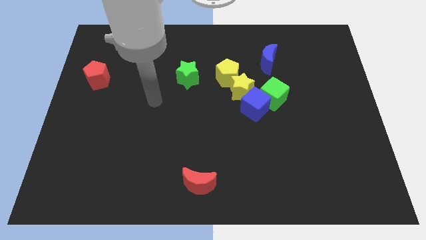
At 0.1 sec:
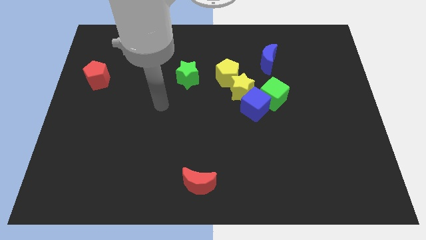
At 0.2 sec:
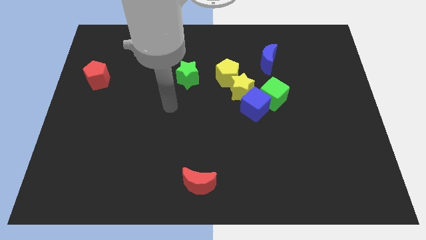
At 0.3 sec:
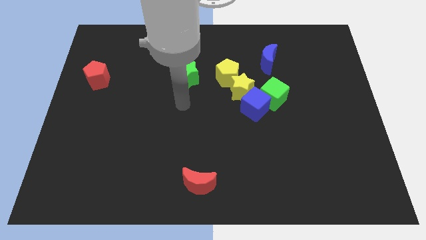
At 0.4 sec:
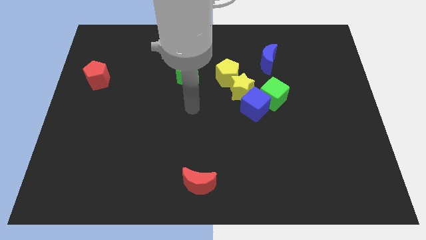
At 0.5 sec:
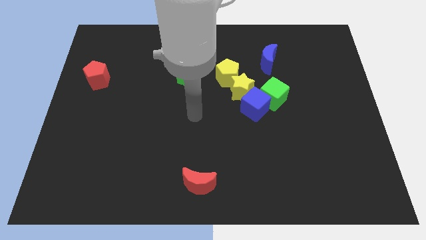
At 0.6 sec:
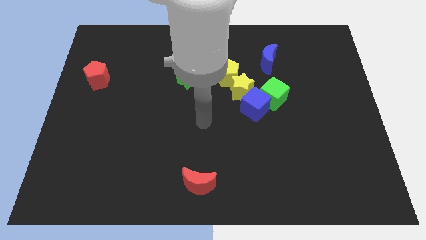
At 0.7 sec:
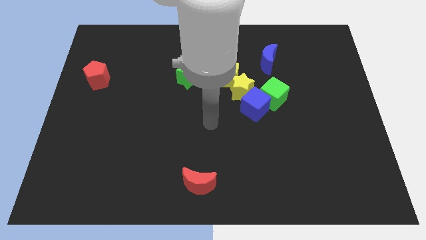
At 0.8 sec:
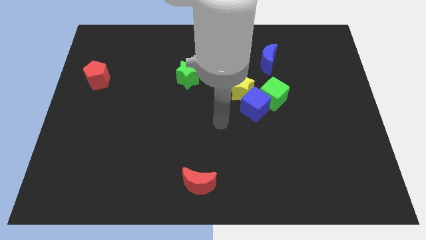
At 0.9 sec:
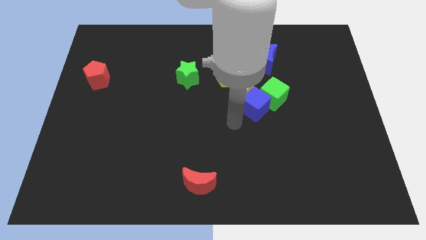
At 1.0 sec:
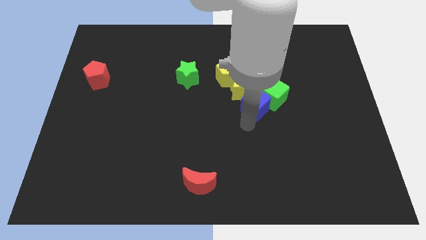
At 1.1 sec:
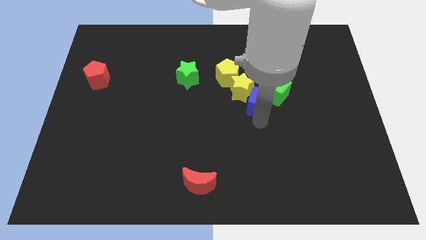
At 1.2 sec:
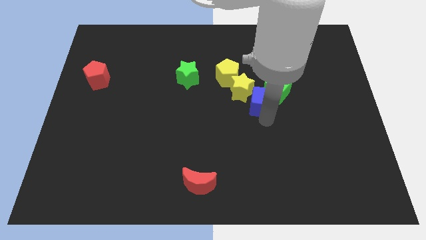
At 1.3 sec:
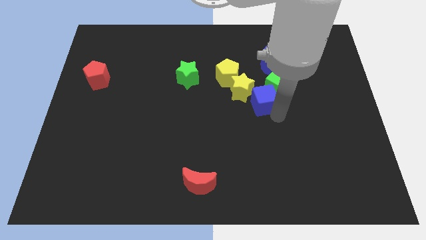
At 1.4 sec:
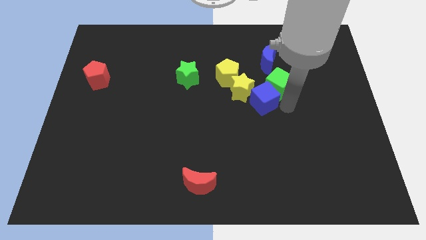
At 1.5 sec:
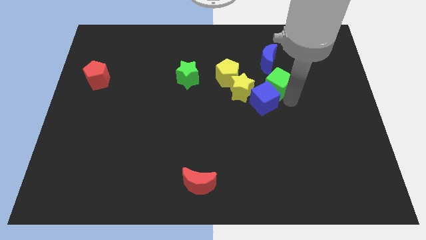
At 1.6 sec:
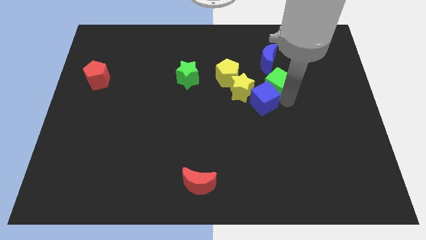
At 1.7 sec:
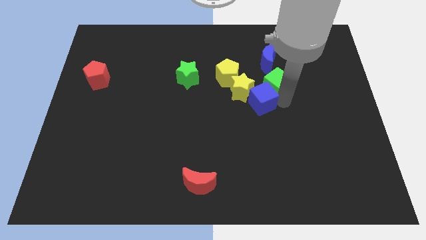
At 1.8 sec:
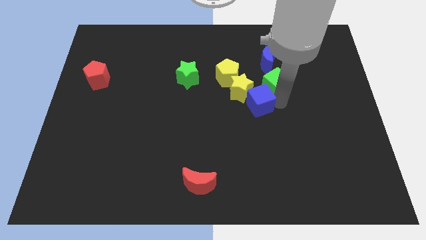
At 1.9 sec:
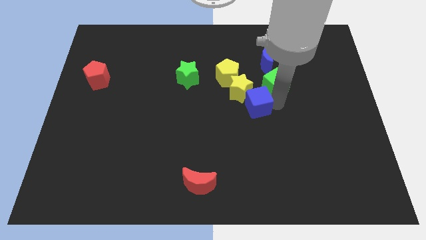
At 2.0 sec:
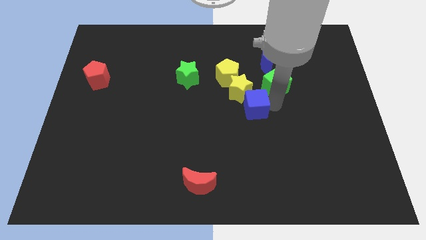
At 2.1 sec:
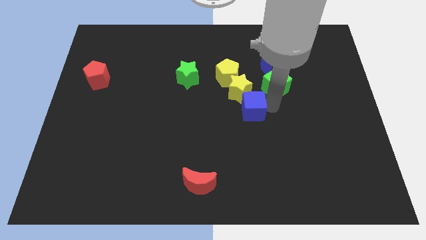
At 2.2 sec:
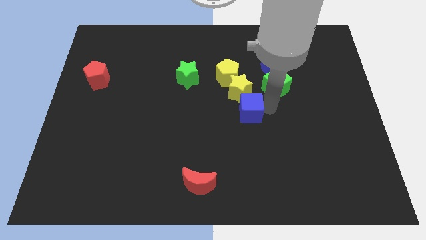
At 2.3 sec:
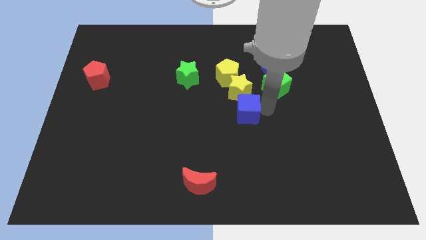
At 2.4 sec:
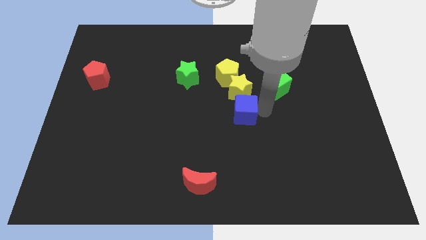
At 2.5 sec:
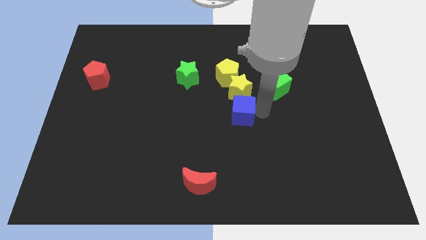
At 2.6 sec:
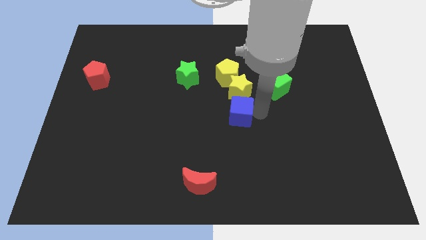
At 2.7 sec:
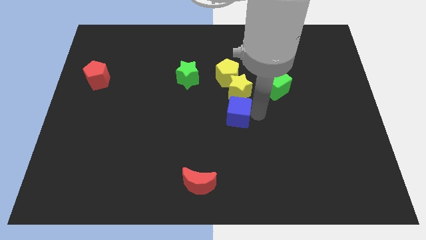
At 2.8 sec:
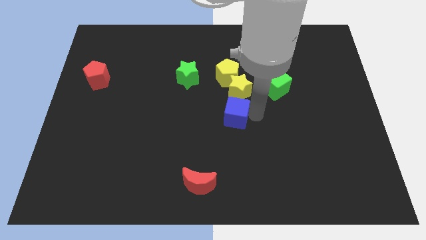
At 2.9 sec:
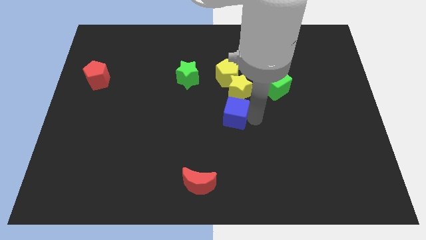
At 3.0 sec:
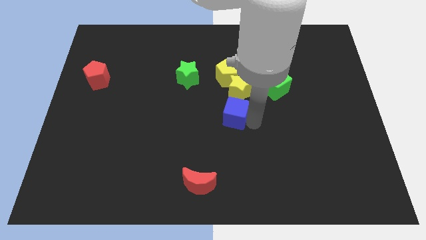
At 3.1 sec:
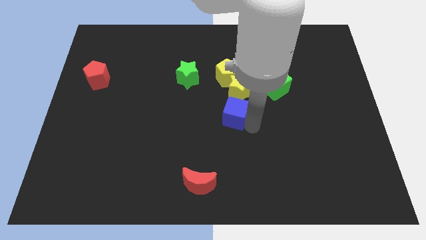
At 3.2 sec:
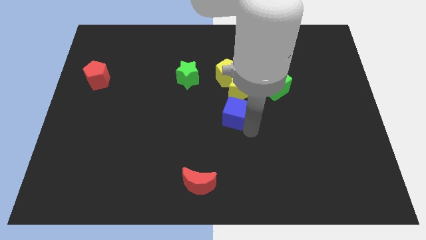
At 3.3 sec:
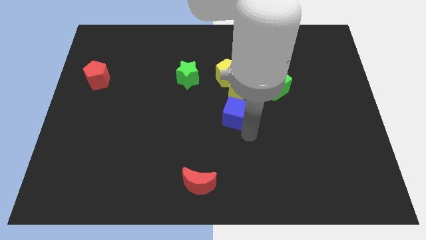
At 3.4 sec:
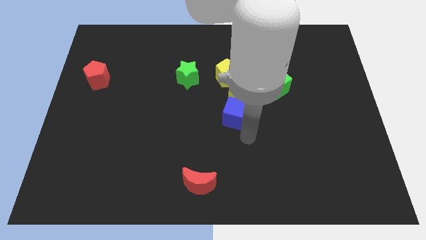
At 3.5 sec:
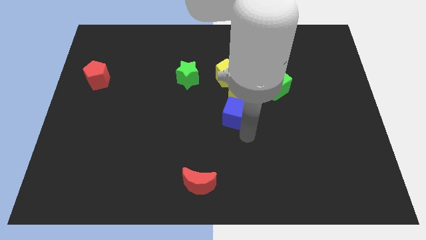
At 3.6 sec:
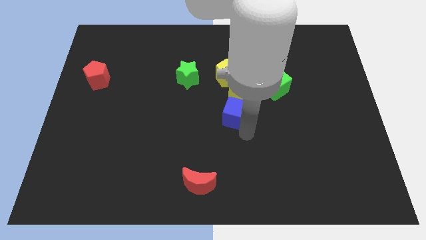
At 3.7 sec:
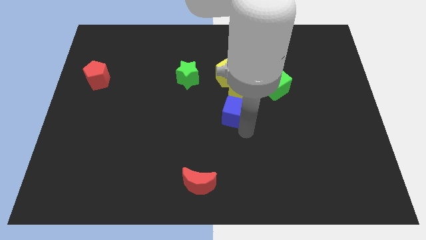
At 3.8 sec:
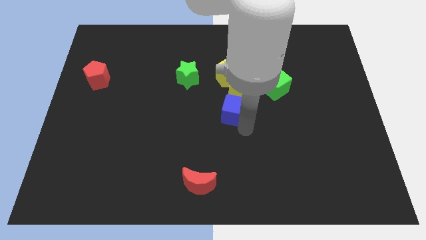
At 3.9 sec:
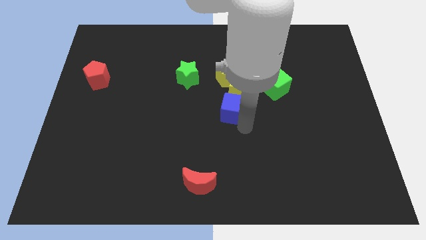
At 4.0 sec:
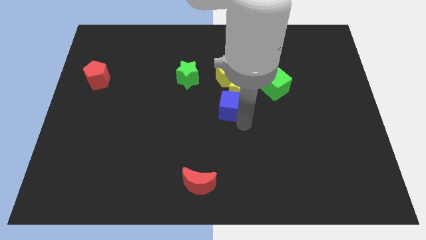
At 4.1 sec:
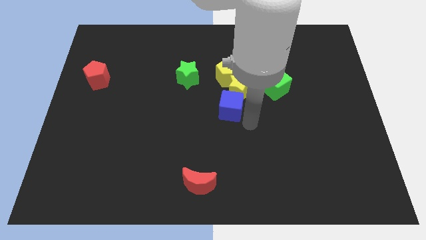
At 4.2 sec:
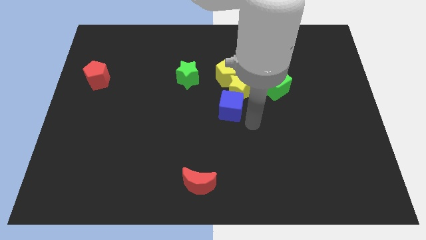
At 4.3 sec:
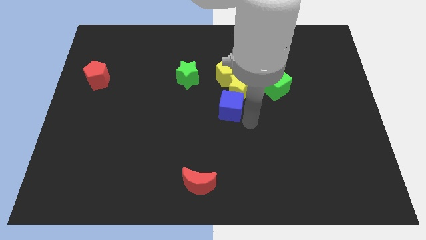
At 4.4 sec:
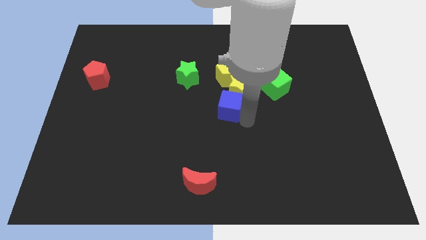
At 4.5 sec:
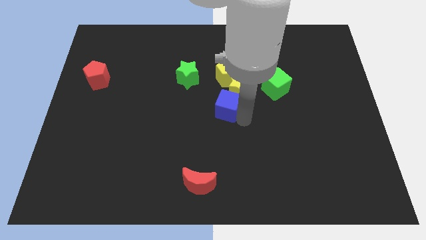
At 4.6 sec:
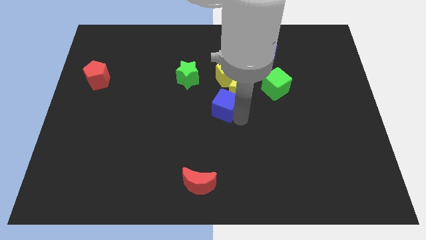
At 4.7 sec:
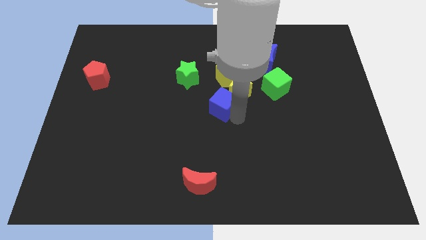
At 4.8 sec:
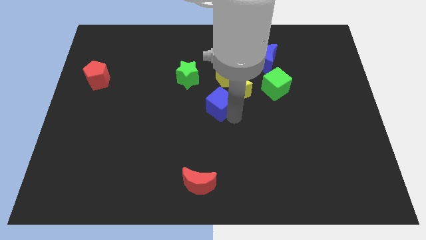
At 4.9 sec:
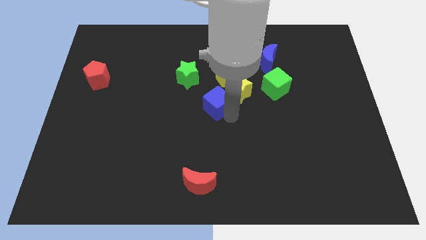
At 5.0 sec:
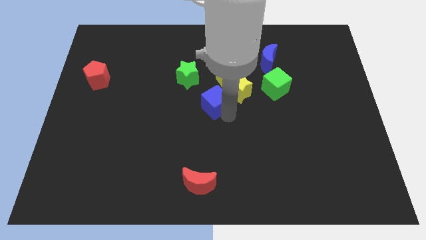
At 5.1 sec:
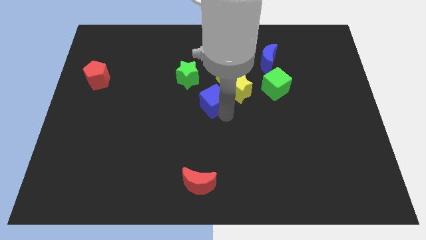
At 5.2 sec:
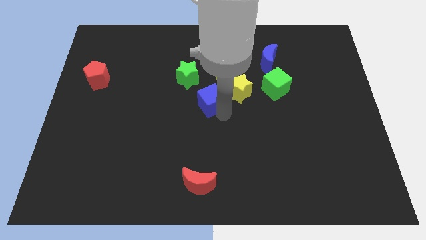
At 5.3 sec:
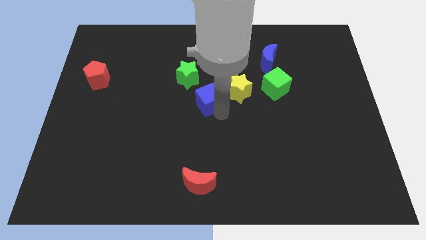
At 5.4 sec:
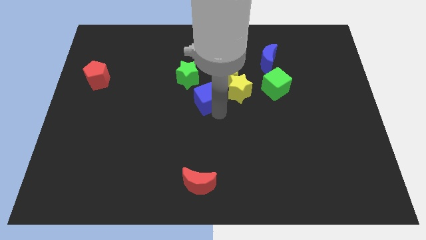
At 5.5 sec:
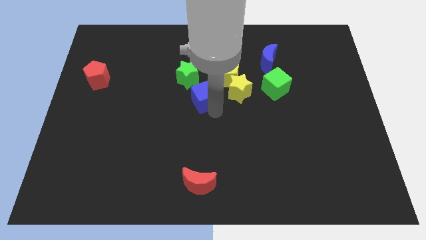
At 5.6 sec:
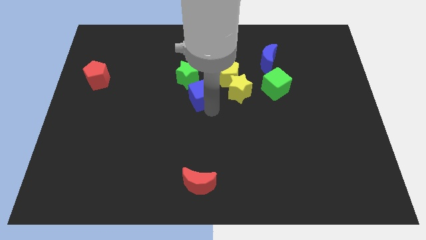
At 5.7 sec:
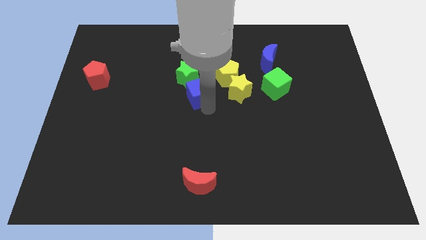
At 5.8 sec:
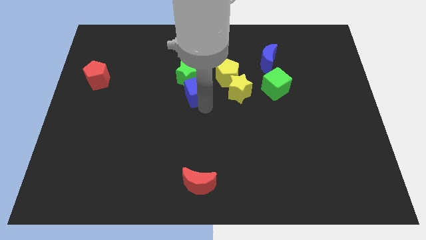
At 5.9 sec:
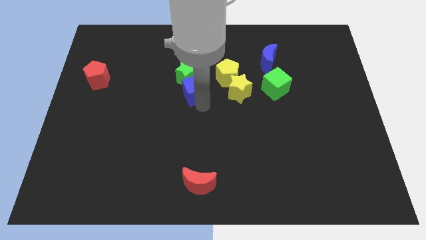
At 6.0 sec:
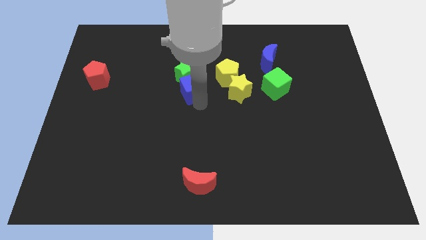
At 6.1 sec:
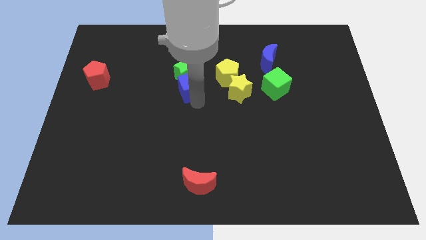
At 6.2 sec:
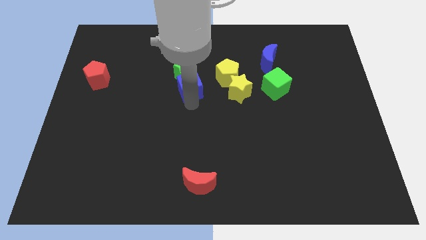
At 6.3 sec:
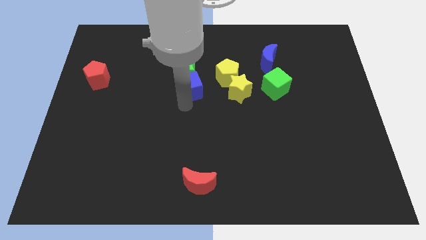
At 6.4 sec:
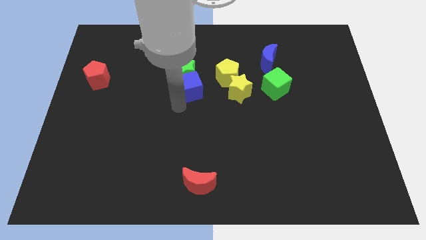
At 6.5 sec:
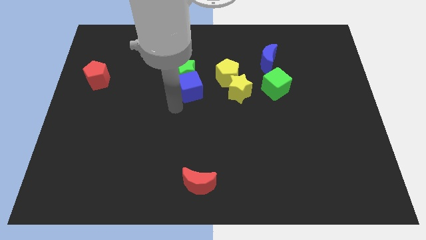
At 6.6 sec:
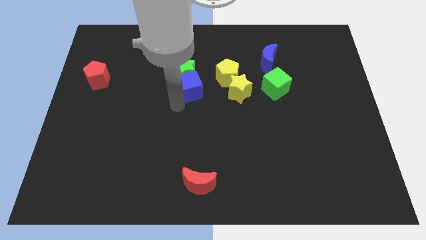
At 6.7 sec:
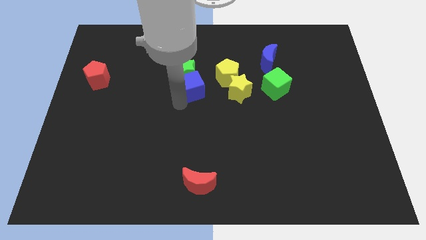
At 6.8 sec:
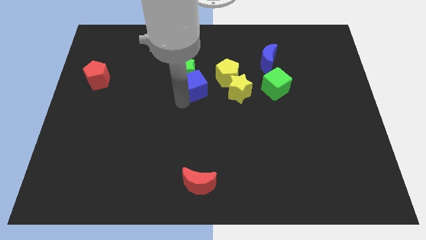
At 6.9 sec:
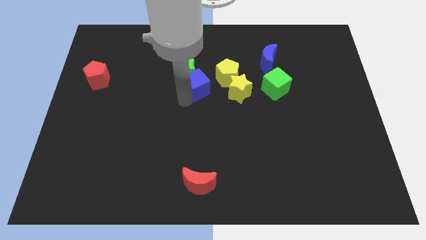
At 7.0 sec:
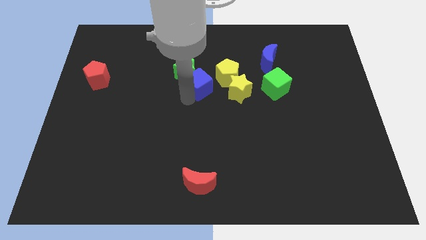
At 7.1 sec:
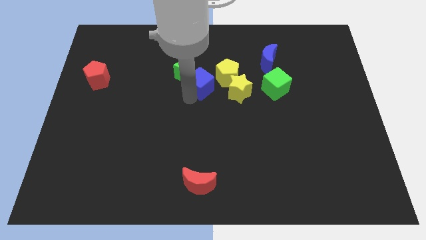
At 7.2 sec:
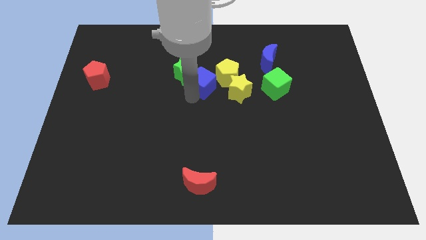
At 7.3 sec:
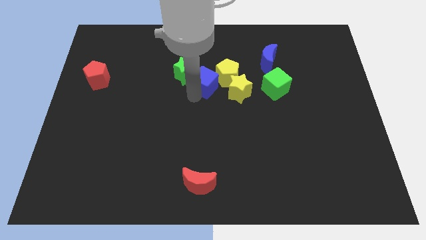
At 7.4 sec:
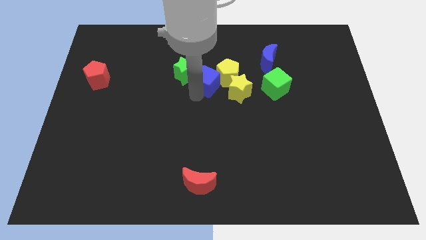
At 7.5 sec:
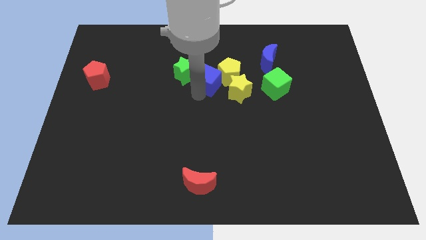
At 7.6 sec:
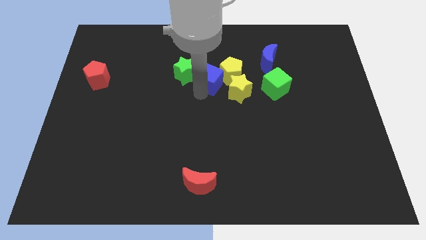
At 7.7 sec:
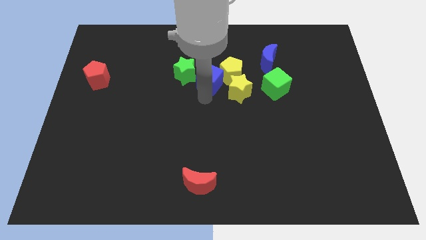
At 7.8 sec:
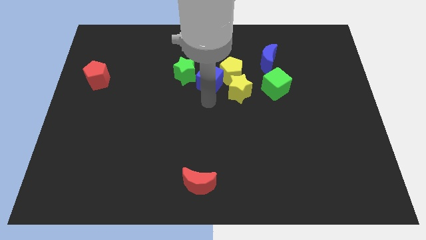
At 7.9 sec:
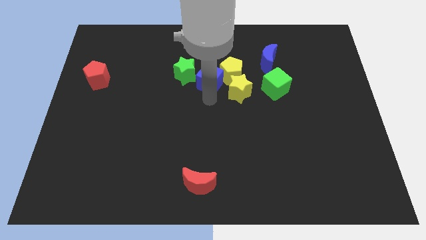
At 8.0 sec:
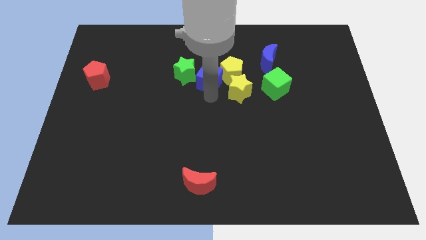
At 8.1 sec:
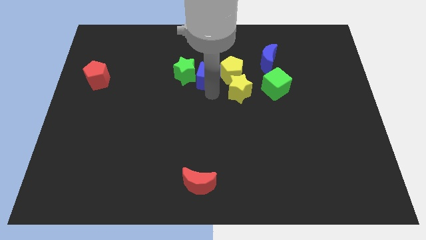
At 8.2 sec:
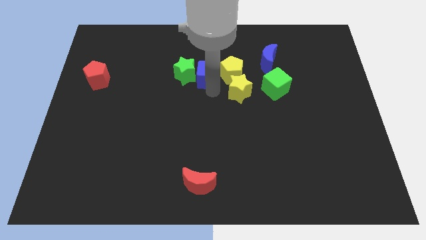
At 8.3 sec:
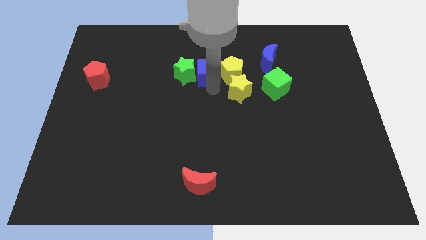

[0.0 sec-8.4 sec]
push the blue cube to the top left of the yellow pentagon
